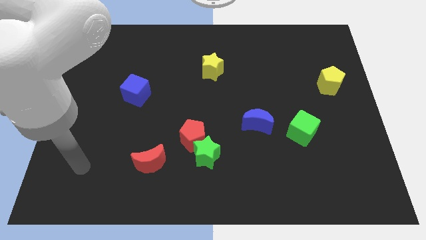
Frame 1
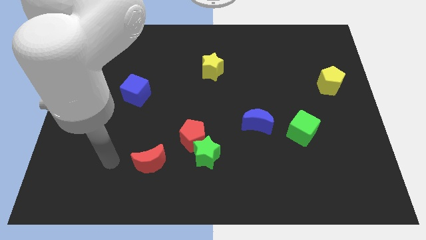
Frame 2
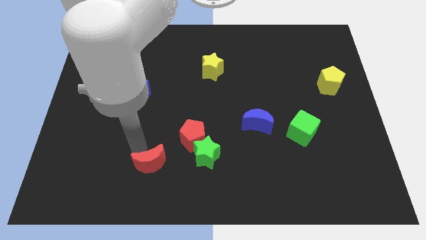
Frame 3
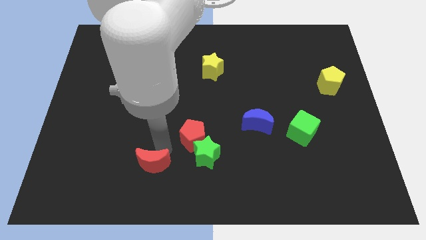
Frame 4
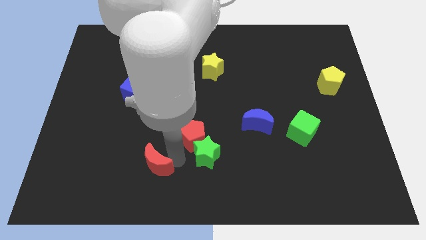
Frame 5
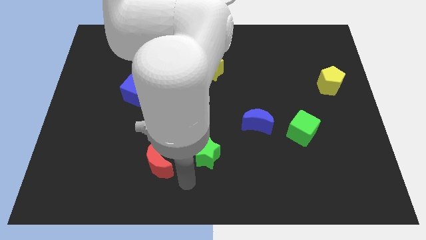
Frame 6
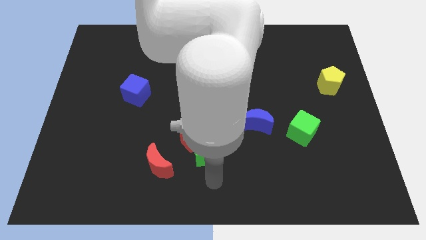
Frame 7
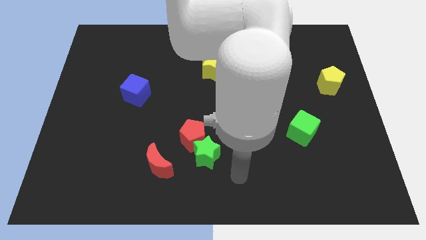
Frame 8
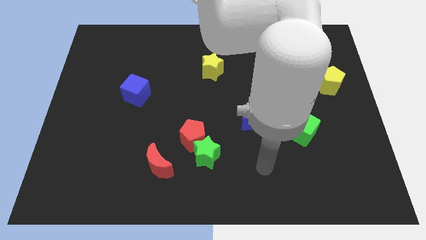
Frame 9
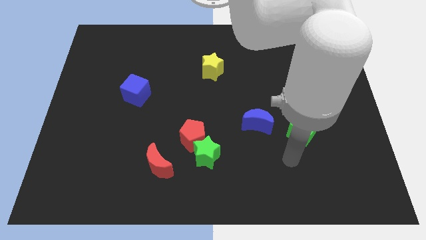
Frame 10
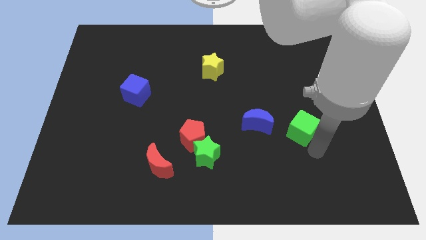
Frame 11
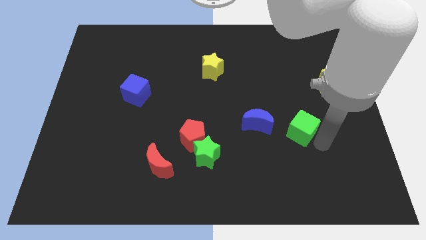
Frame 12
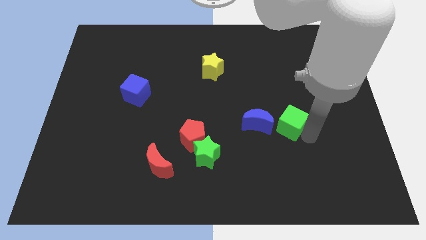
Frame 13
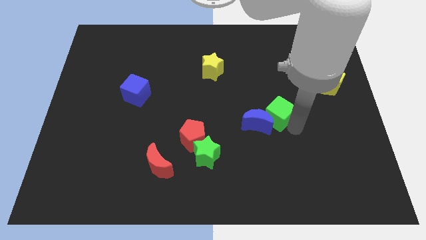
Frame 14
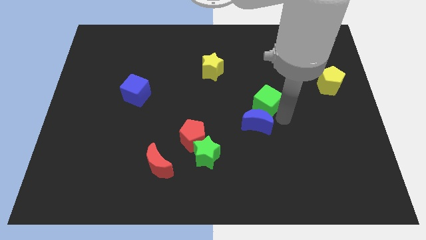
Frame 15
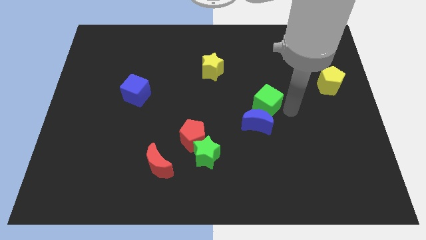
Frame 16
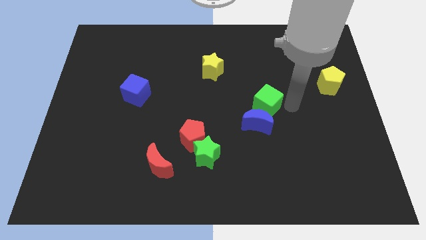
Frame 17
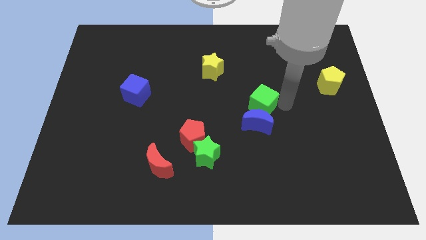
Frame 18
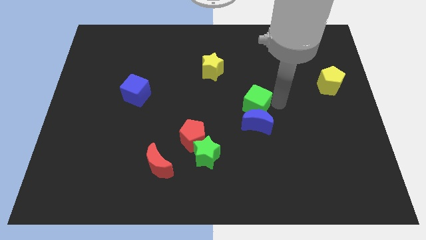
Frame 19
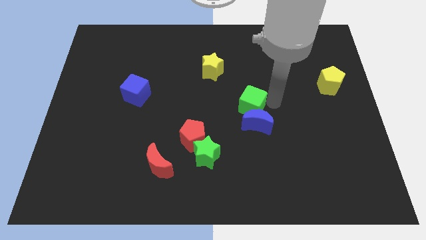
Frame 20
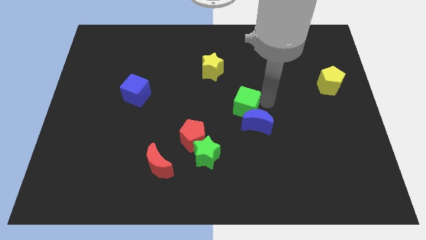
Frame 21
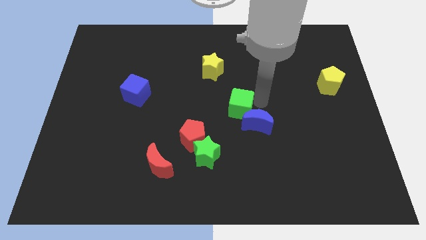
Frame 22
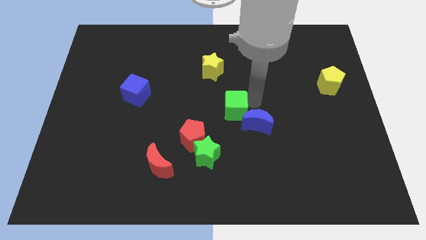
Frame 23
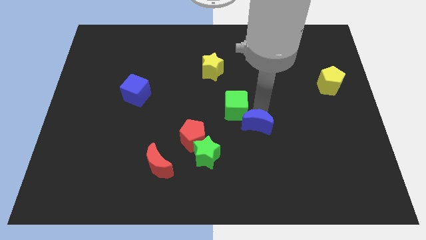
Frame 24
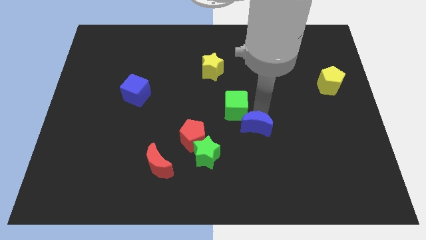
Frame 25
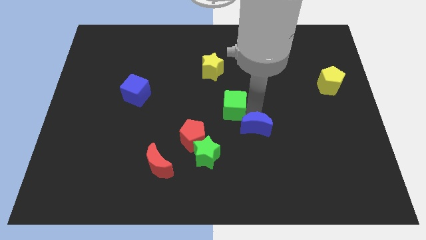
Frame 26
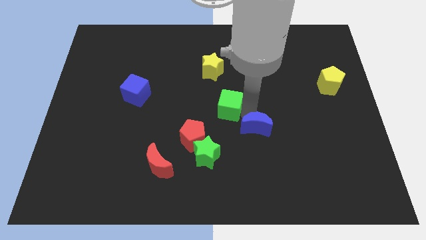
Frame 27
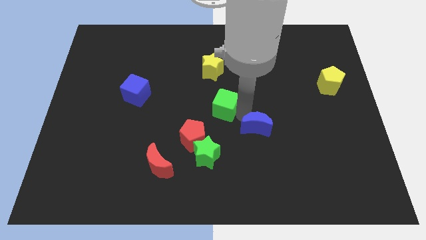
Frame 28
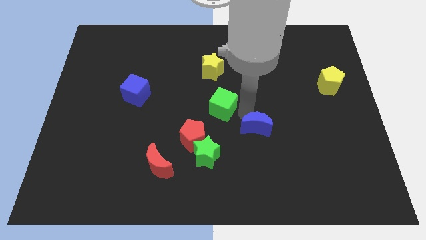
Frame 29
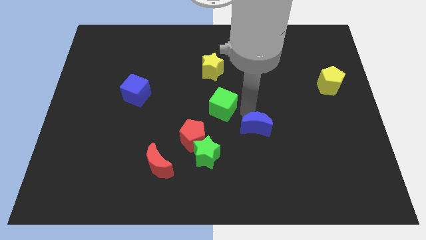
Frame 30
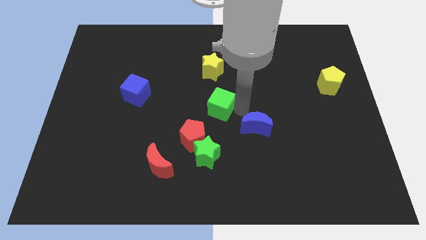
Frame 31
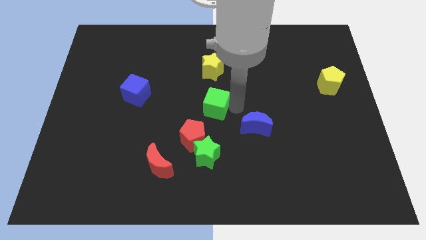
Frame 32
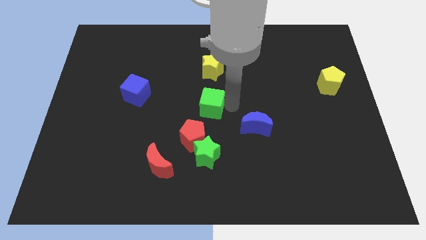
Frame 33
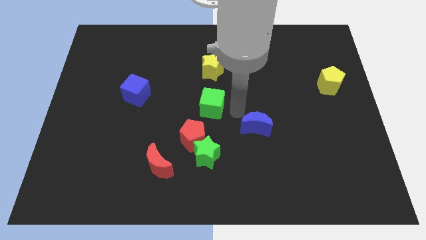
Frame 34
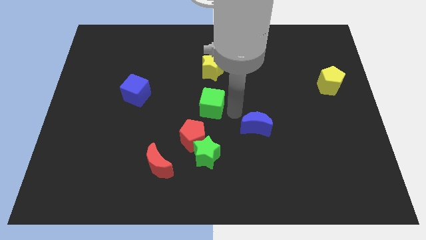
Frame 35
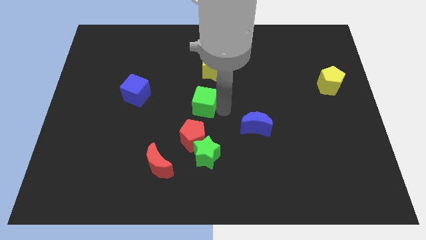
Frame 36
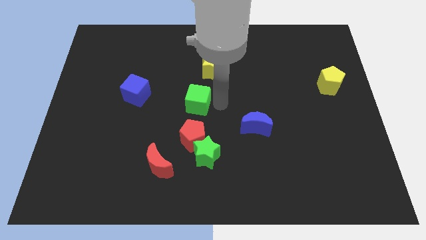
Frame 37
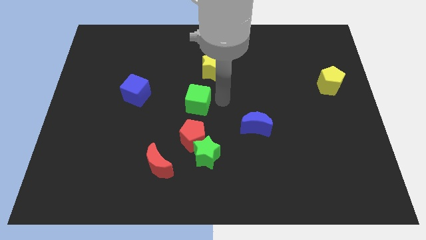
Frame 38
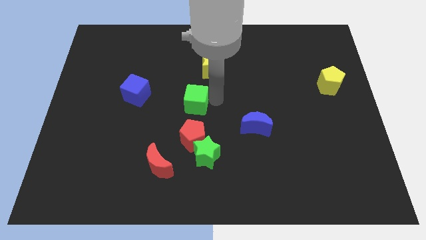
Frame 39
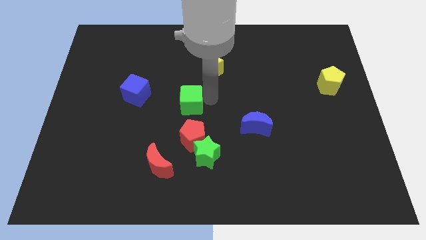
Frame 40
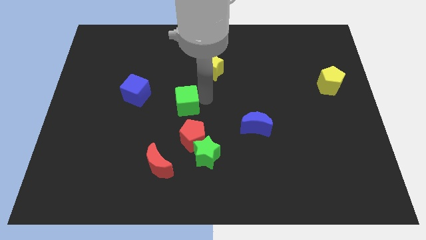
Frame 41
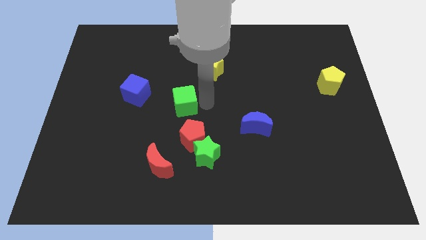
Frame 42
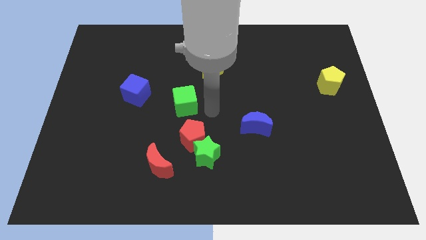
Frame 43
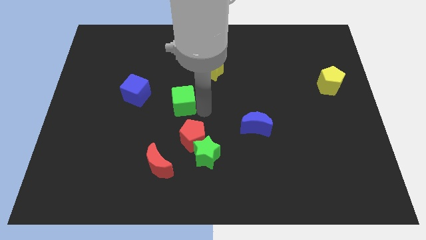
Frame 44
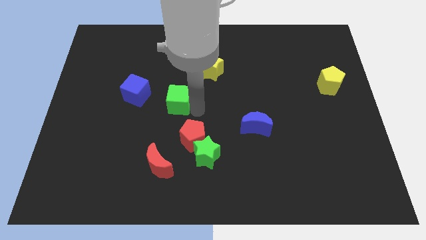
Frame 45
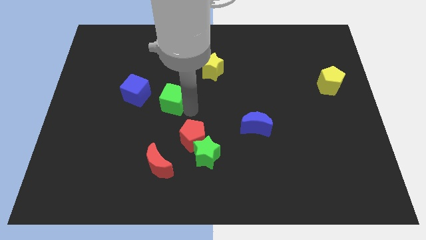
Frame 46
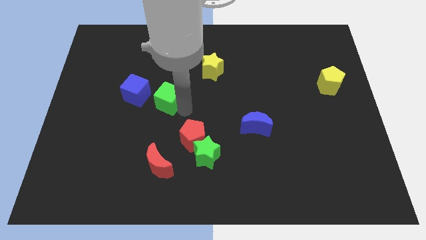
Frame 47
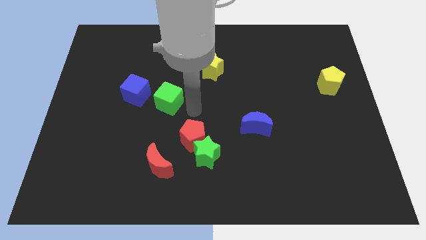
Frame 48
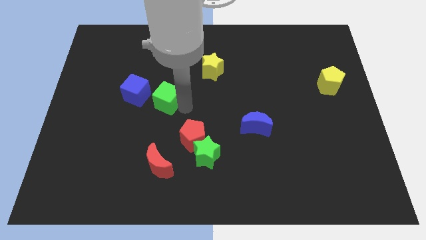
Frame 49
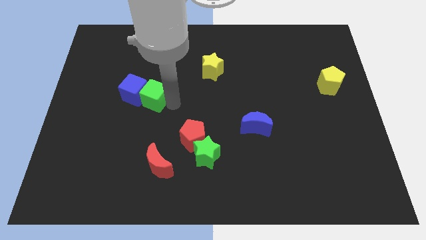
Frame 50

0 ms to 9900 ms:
slide the green cube towards the blue cube

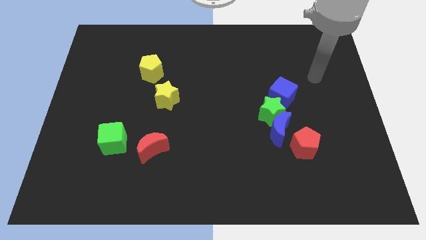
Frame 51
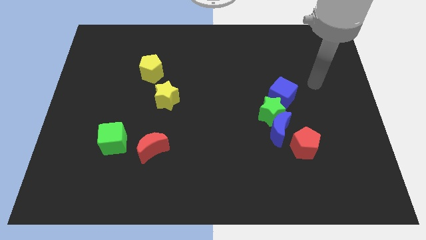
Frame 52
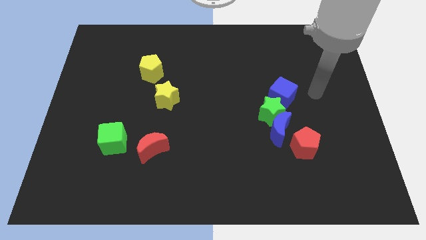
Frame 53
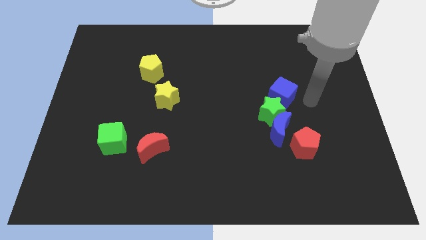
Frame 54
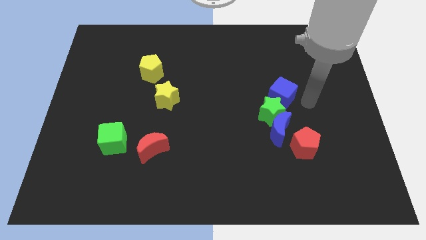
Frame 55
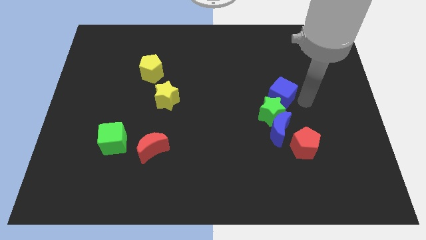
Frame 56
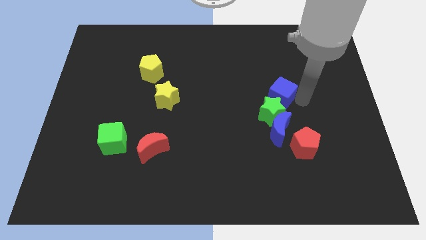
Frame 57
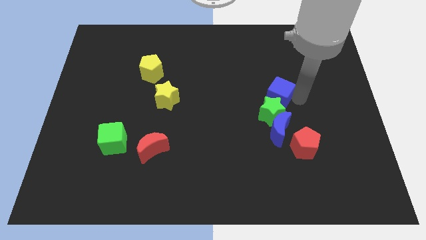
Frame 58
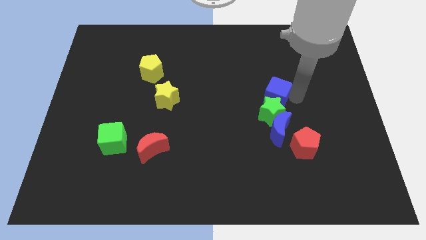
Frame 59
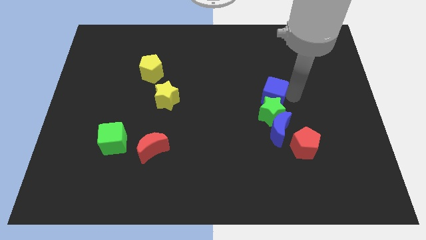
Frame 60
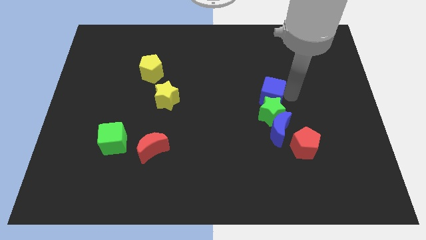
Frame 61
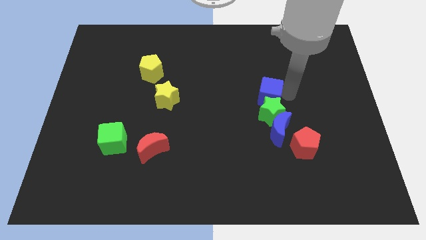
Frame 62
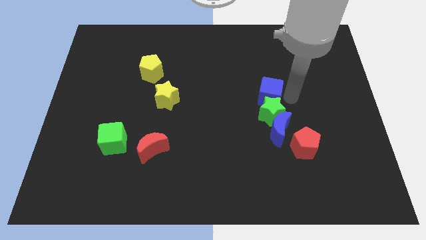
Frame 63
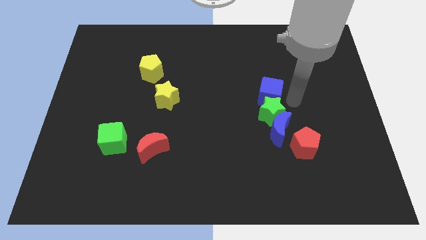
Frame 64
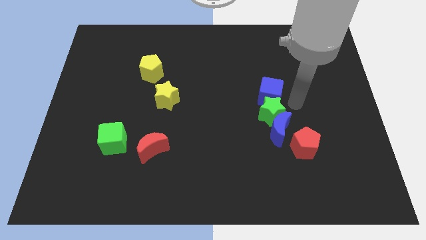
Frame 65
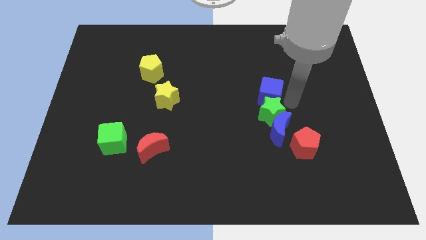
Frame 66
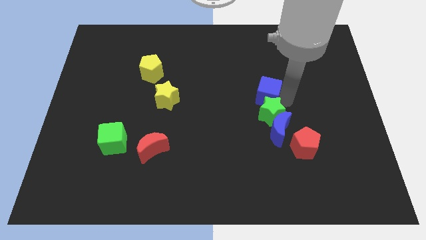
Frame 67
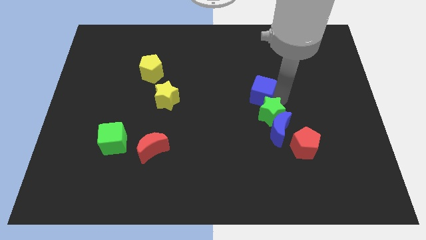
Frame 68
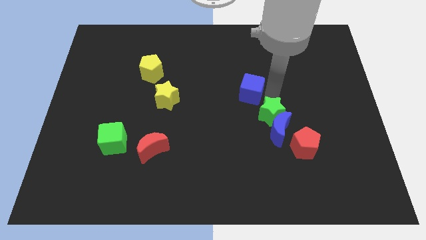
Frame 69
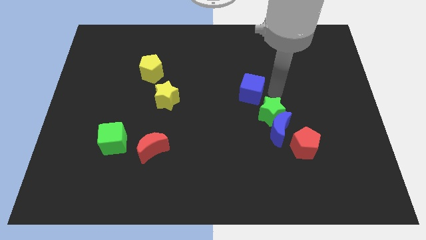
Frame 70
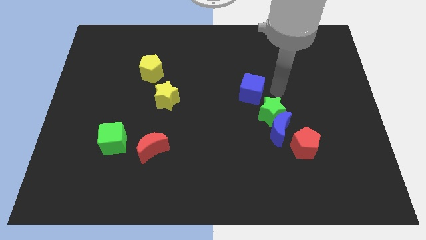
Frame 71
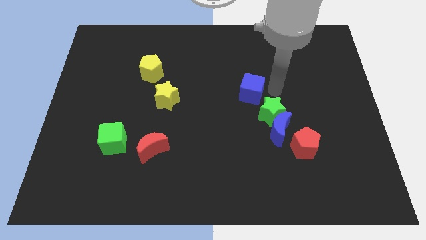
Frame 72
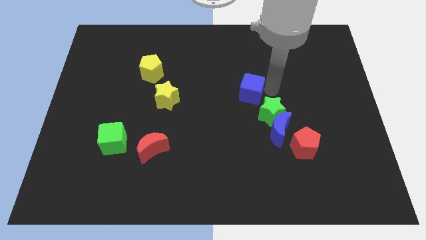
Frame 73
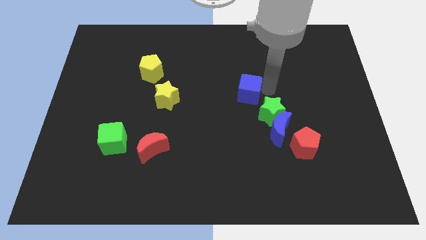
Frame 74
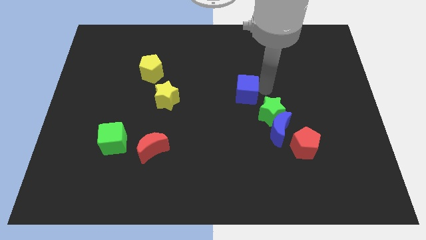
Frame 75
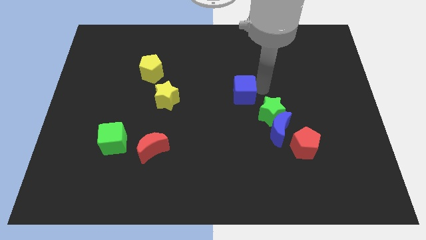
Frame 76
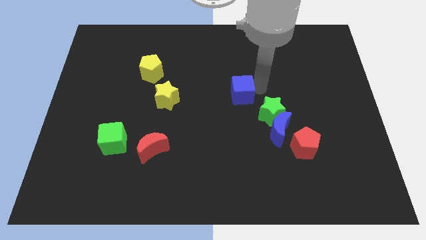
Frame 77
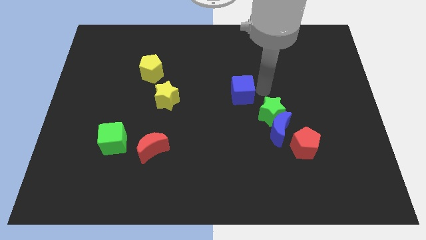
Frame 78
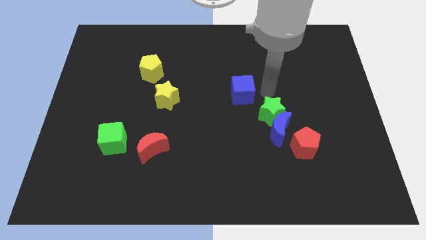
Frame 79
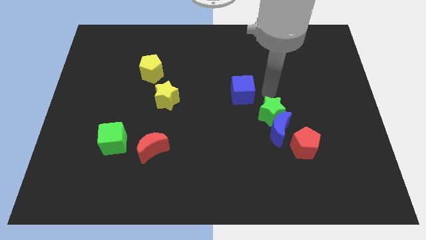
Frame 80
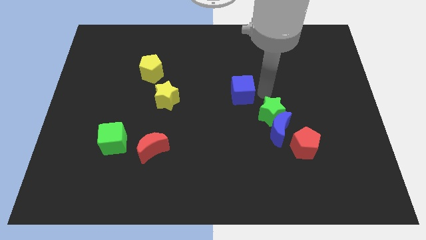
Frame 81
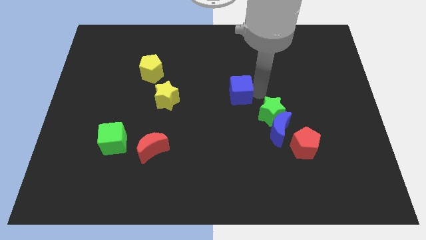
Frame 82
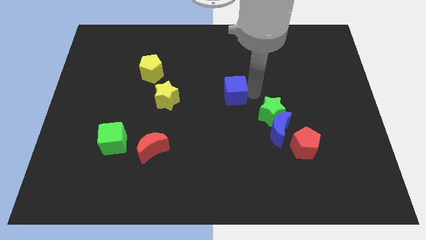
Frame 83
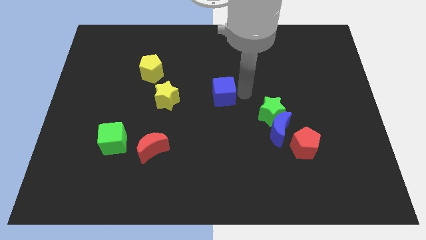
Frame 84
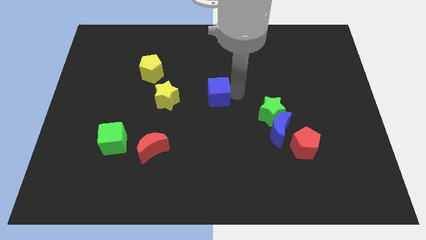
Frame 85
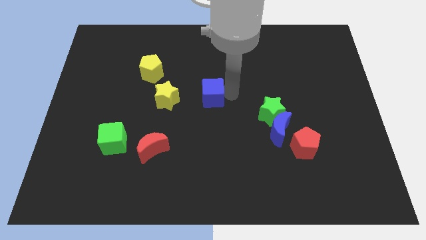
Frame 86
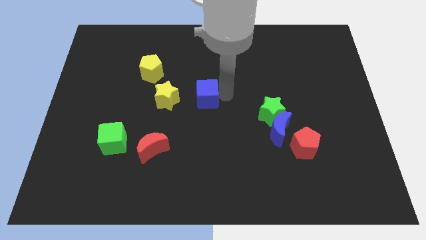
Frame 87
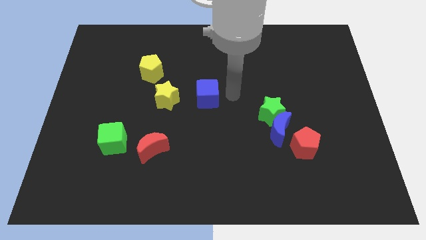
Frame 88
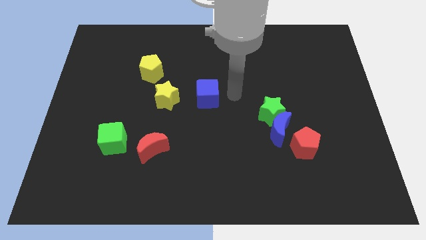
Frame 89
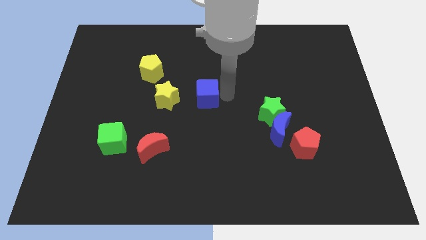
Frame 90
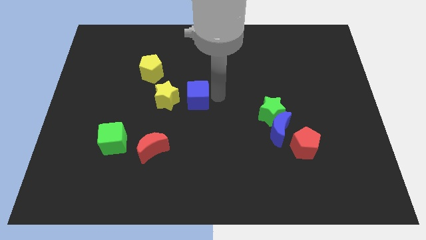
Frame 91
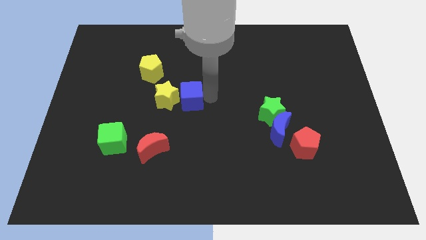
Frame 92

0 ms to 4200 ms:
slide the blue cube close to the yellow star
